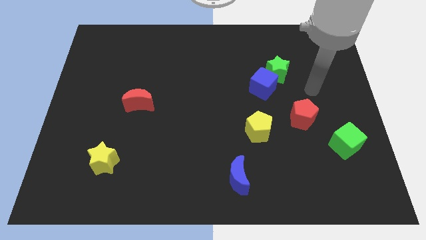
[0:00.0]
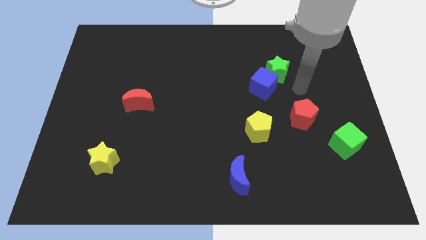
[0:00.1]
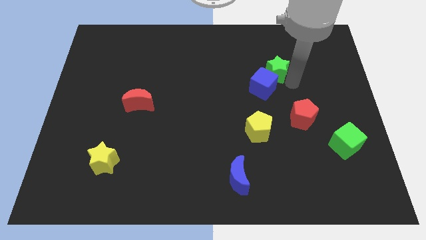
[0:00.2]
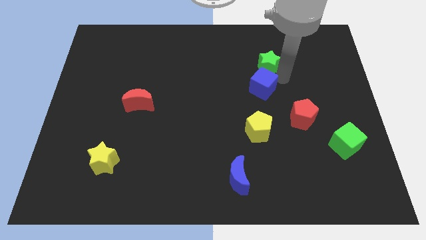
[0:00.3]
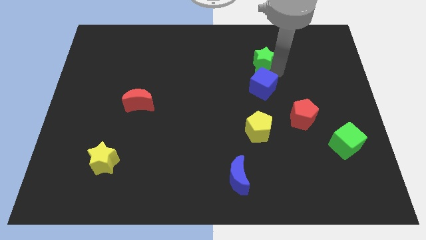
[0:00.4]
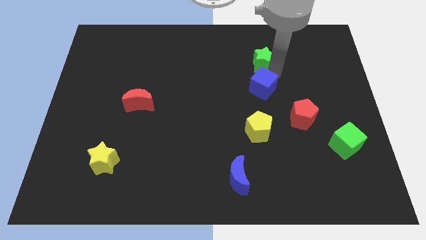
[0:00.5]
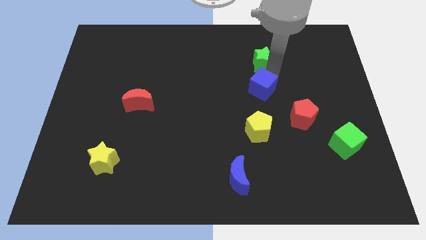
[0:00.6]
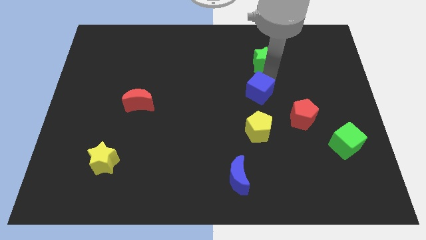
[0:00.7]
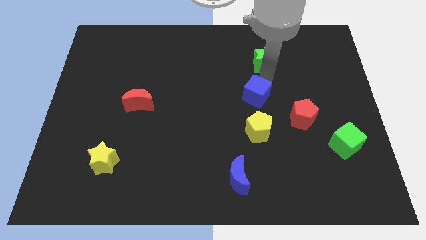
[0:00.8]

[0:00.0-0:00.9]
move the blue cube away from the green star

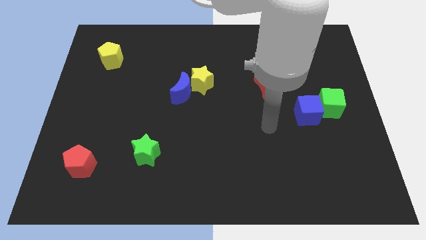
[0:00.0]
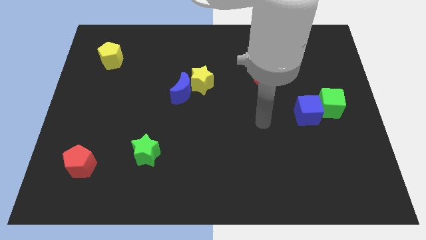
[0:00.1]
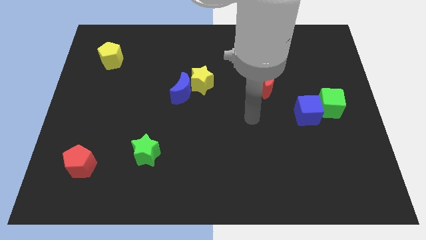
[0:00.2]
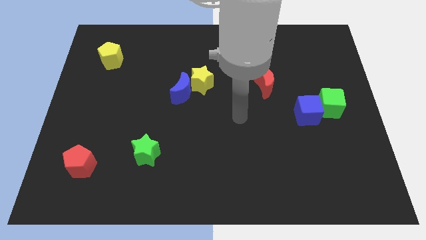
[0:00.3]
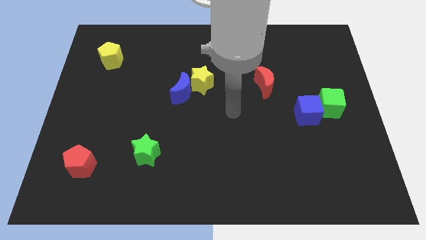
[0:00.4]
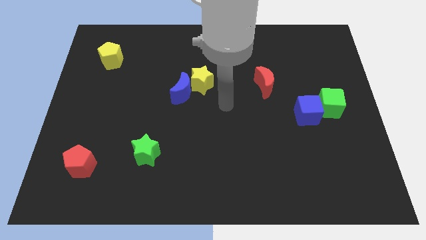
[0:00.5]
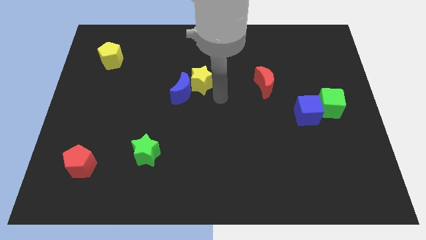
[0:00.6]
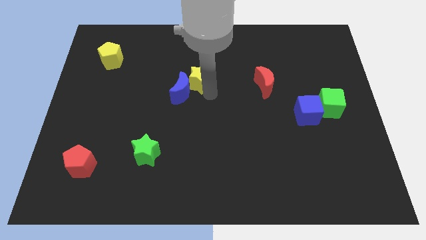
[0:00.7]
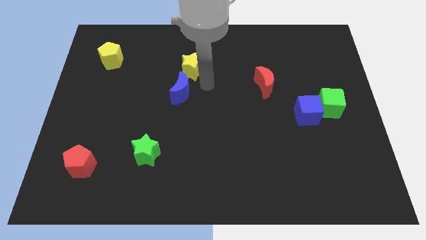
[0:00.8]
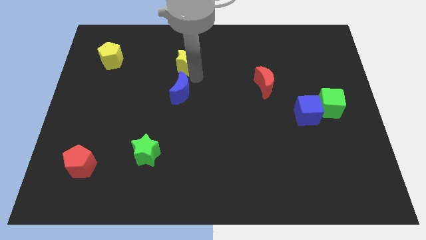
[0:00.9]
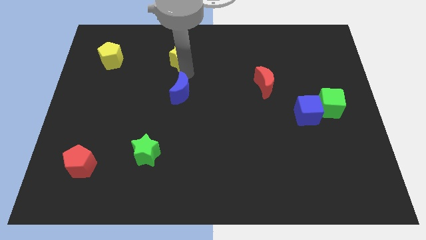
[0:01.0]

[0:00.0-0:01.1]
pull the blue moon apart from the yellow star

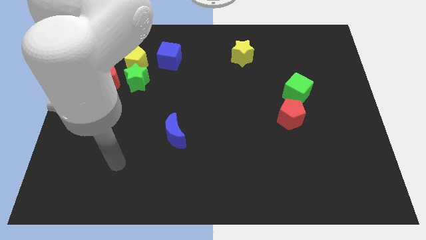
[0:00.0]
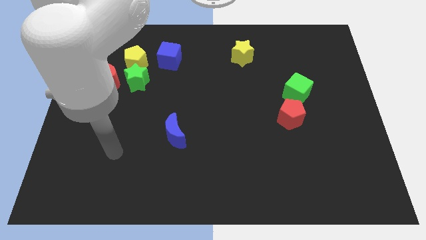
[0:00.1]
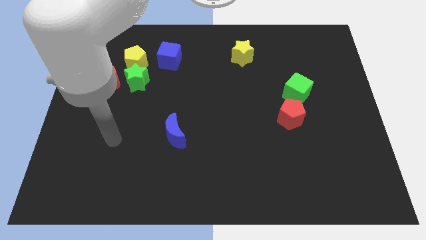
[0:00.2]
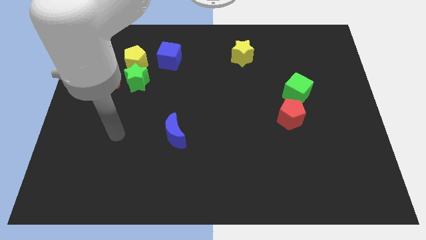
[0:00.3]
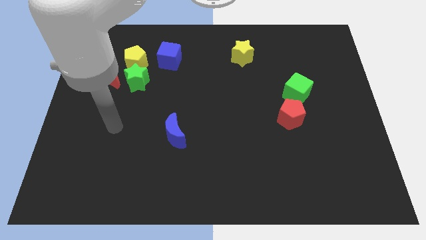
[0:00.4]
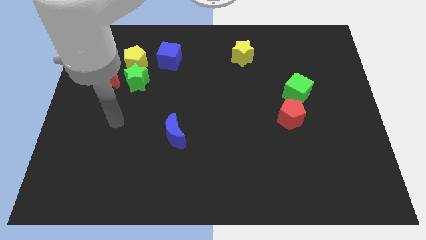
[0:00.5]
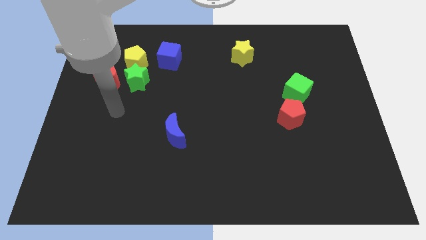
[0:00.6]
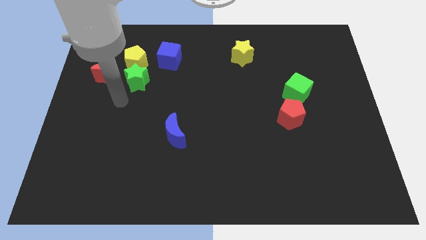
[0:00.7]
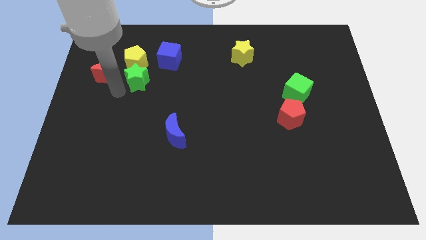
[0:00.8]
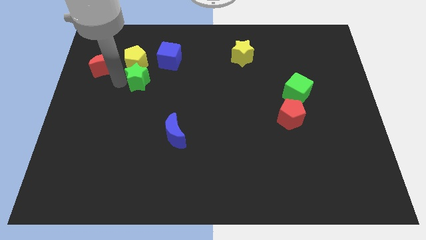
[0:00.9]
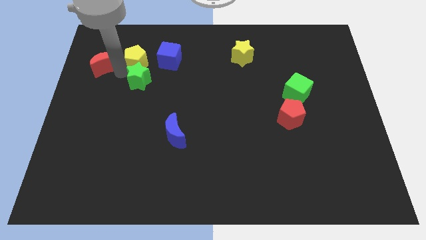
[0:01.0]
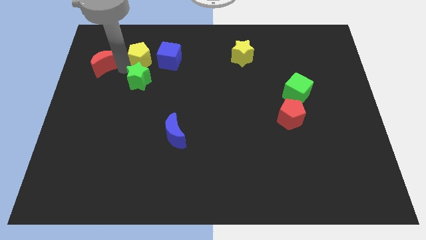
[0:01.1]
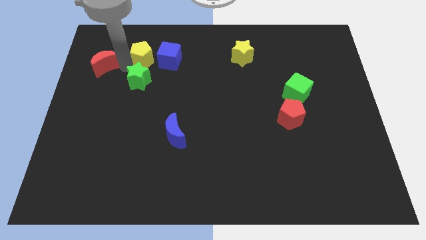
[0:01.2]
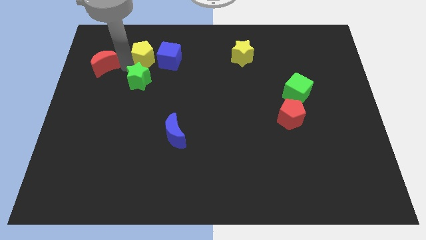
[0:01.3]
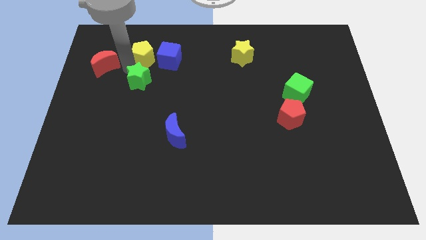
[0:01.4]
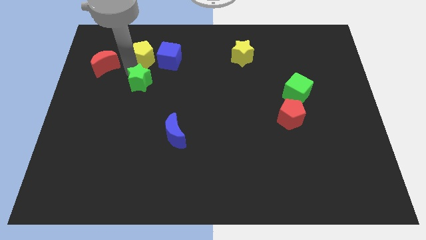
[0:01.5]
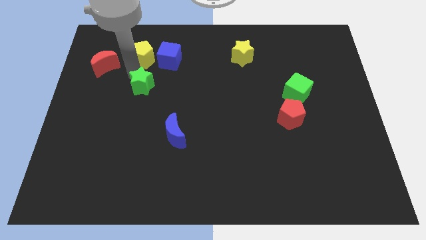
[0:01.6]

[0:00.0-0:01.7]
separate the green star from the yellow pentagon and red moon

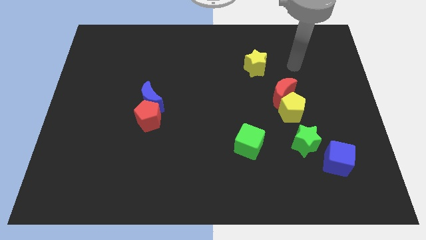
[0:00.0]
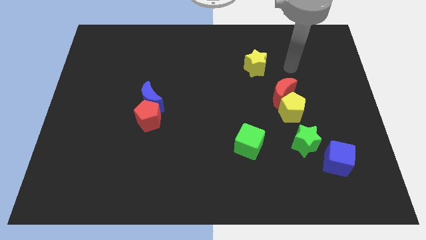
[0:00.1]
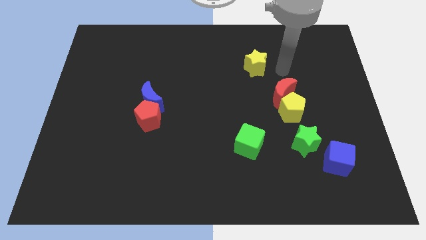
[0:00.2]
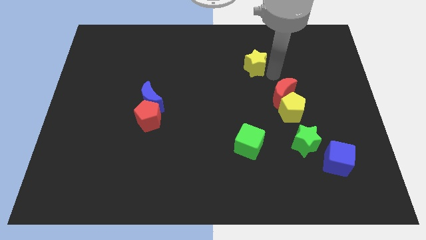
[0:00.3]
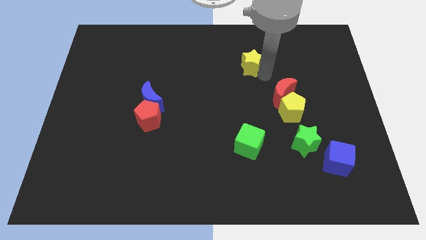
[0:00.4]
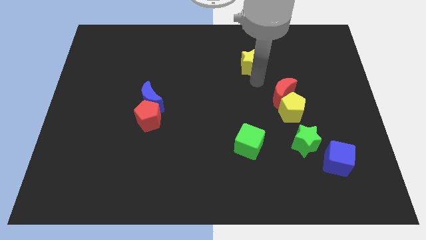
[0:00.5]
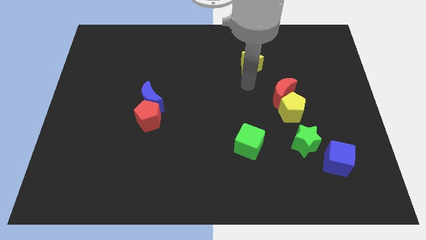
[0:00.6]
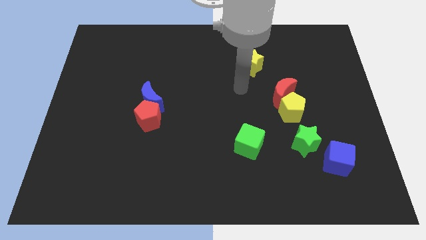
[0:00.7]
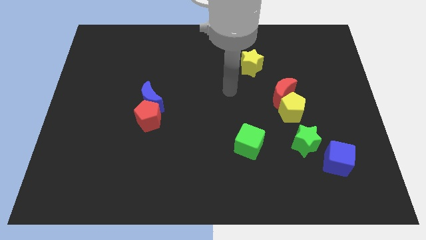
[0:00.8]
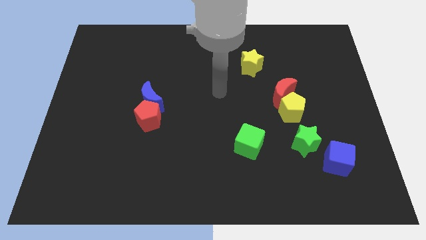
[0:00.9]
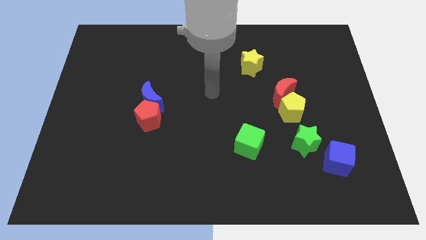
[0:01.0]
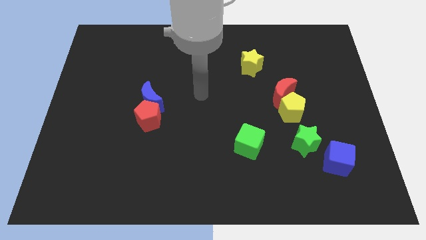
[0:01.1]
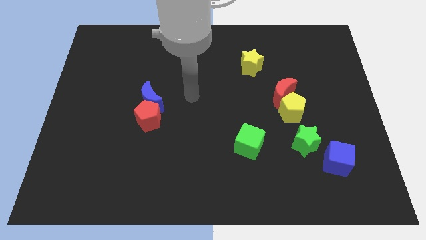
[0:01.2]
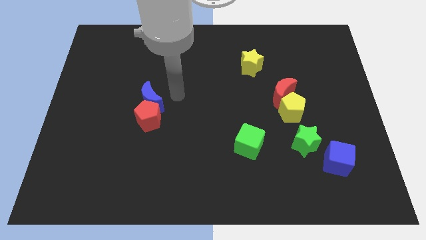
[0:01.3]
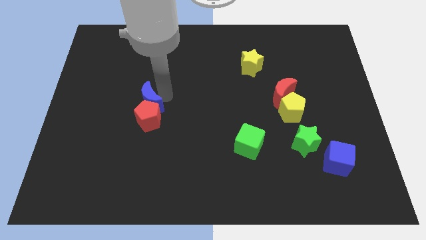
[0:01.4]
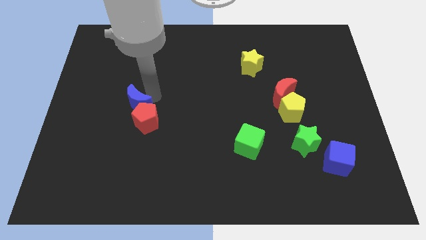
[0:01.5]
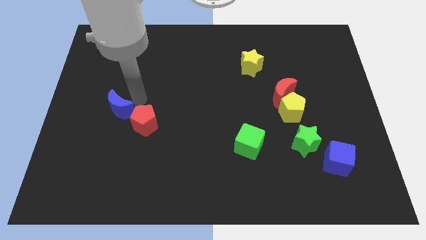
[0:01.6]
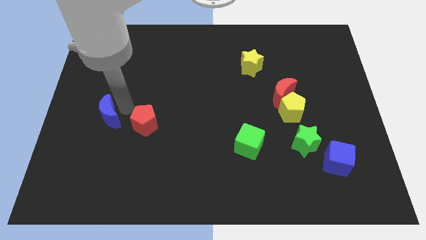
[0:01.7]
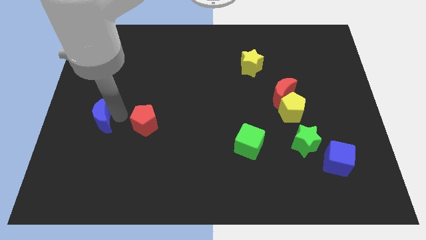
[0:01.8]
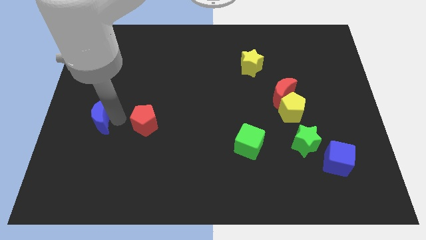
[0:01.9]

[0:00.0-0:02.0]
move the red pentagon away from the blue moon

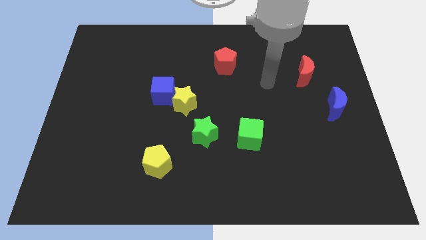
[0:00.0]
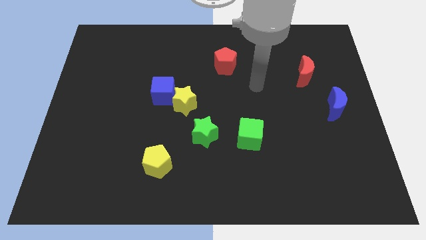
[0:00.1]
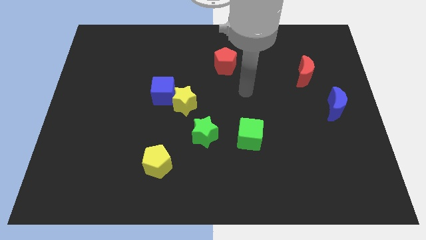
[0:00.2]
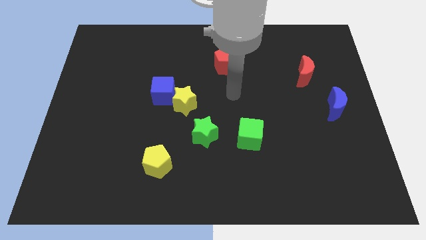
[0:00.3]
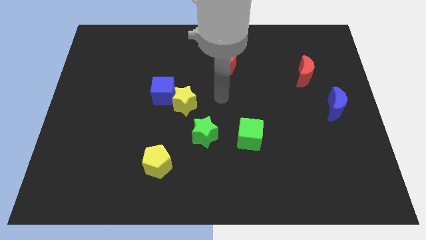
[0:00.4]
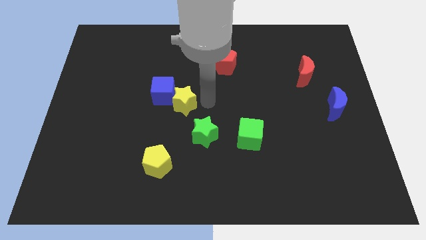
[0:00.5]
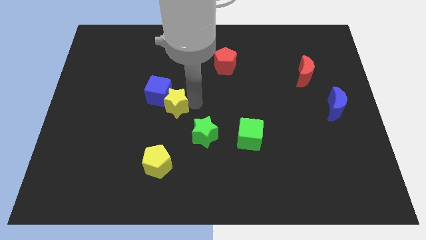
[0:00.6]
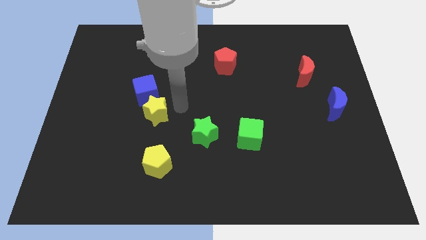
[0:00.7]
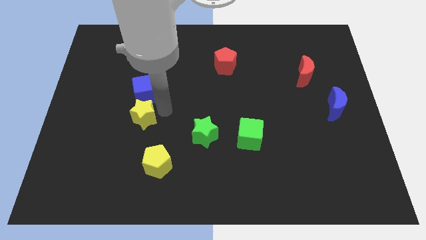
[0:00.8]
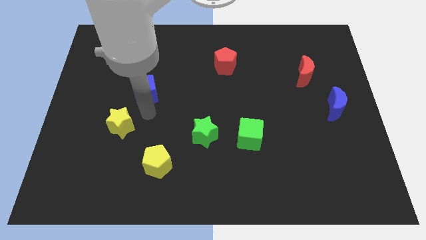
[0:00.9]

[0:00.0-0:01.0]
pull the blue cube apart from the yellow star

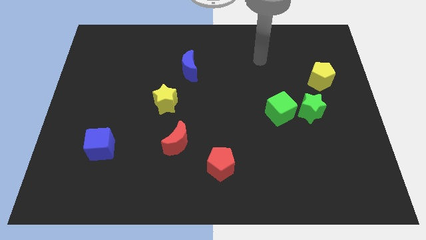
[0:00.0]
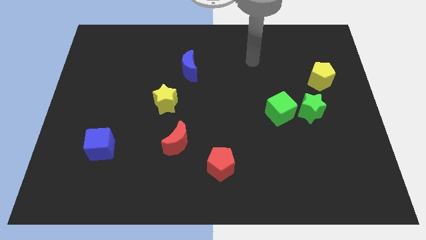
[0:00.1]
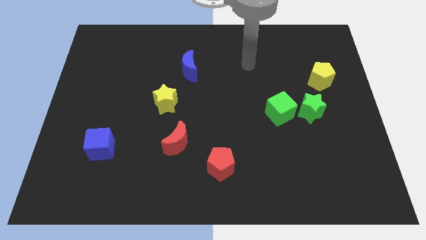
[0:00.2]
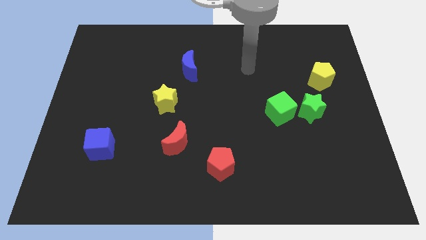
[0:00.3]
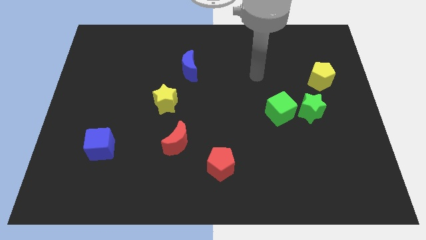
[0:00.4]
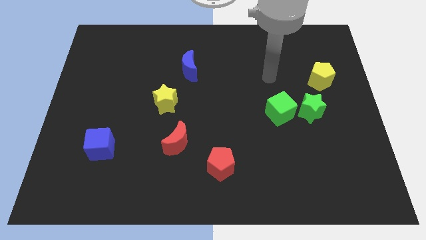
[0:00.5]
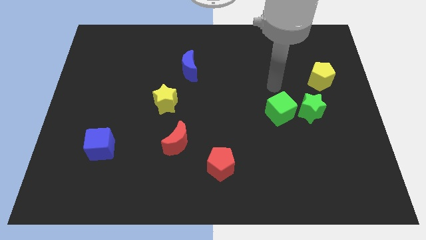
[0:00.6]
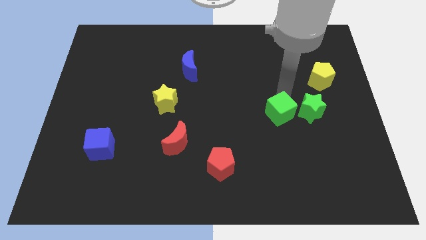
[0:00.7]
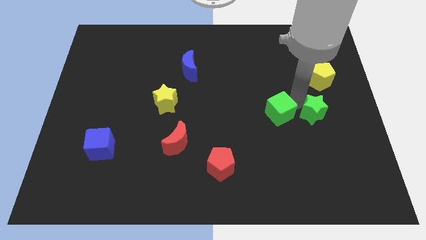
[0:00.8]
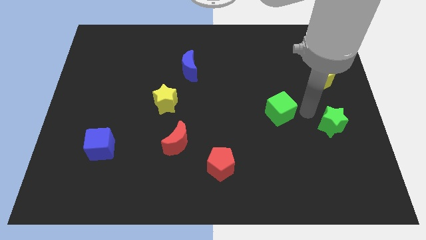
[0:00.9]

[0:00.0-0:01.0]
move the green cube away from the green star

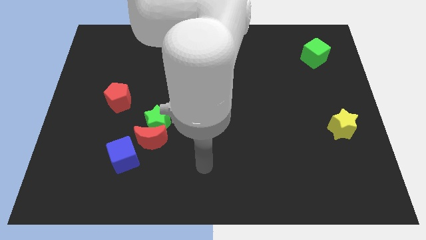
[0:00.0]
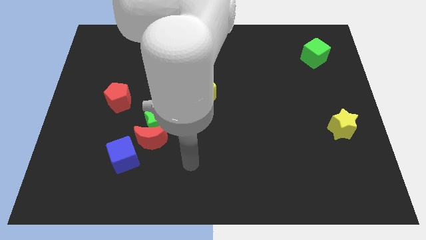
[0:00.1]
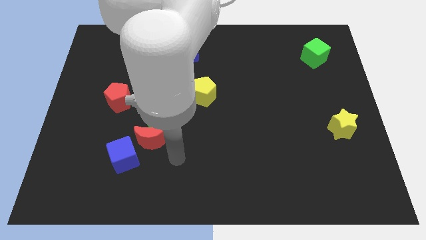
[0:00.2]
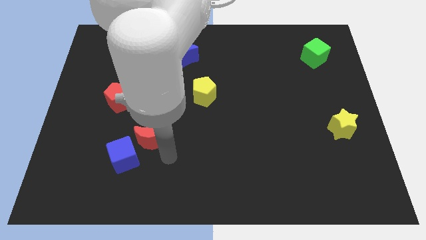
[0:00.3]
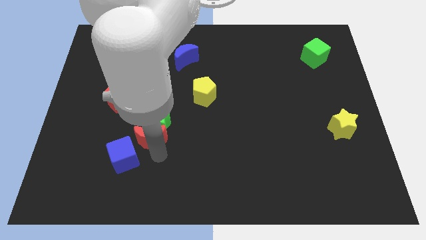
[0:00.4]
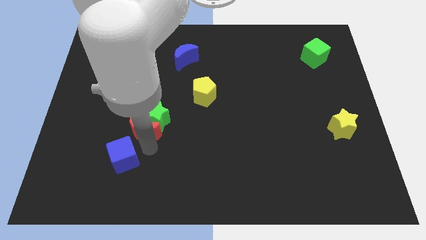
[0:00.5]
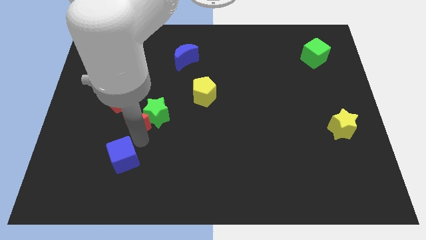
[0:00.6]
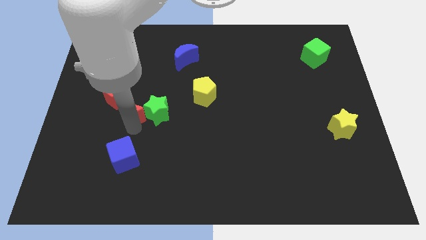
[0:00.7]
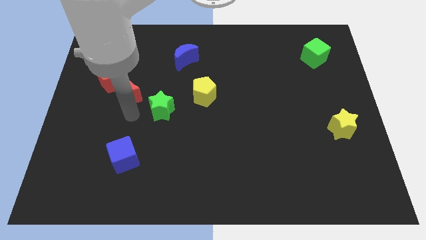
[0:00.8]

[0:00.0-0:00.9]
pull the green star apart from the red moon

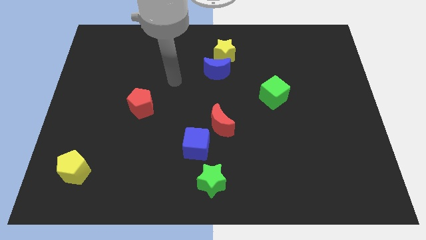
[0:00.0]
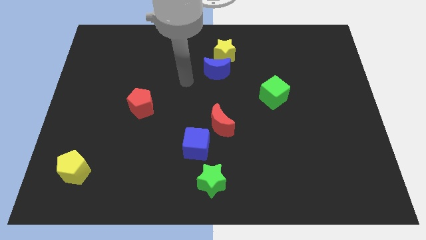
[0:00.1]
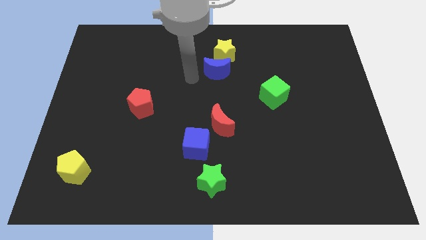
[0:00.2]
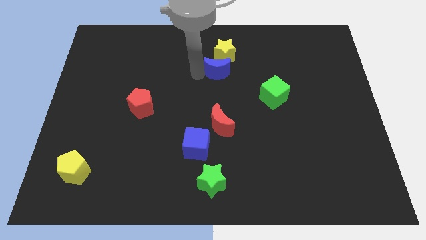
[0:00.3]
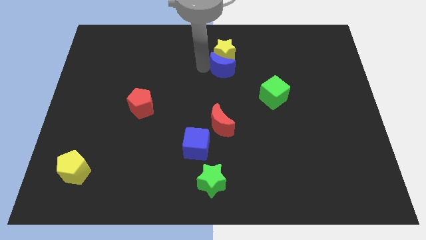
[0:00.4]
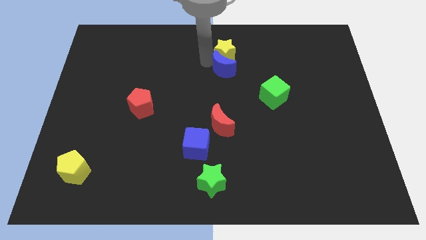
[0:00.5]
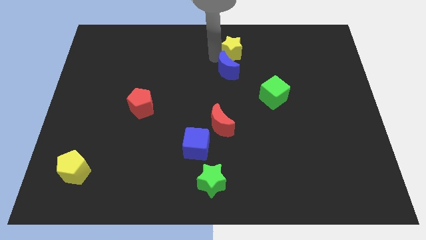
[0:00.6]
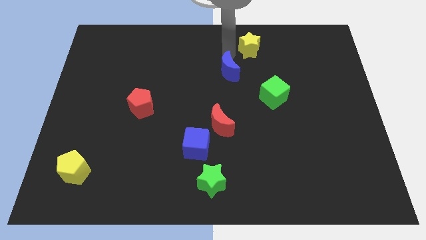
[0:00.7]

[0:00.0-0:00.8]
separate the blue moon from the yellow star

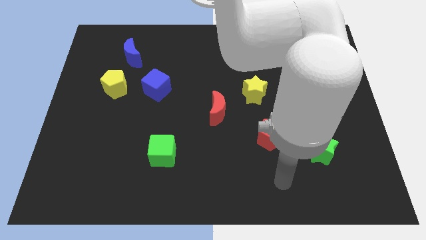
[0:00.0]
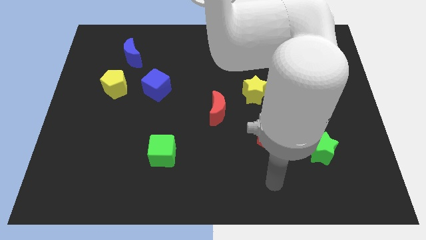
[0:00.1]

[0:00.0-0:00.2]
separate the blue cube from the yellow pentagon
